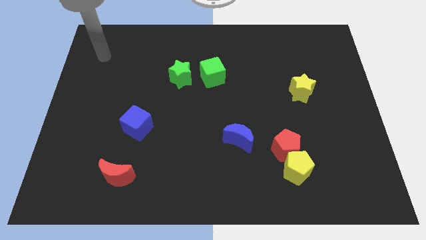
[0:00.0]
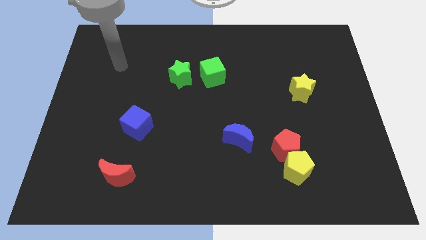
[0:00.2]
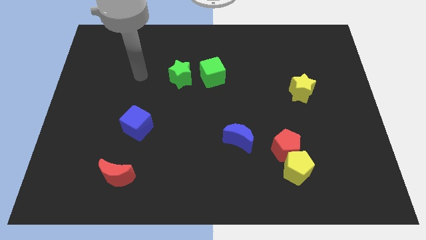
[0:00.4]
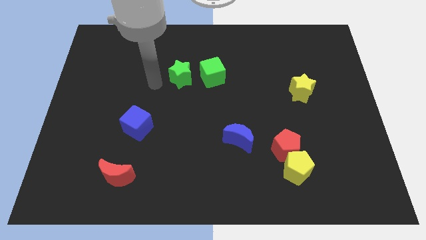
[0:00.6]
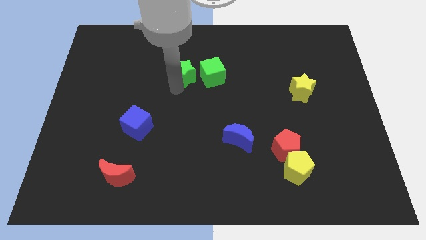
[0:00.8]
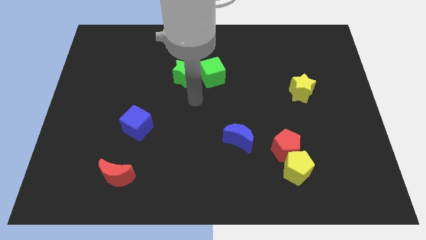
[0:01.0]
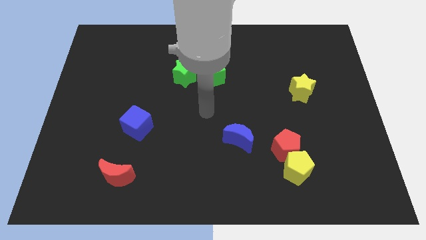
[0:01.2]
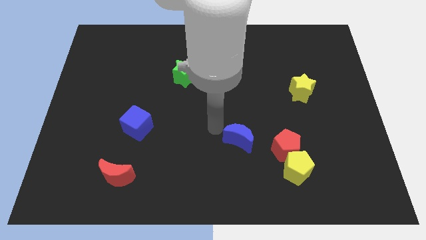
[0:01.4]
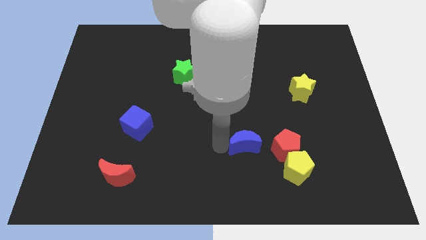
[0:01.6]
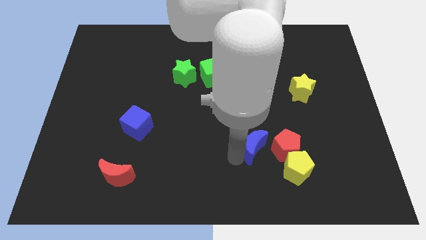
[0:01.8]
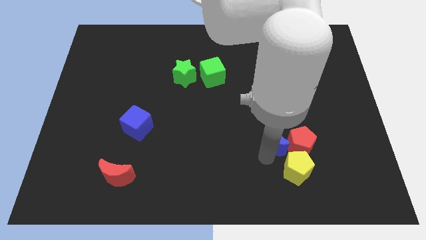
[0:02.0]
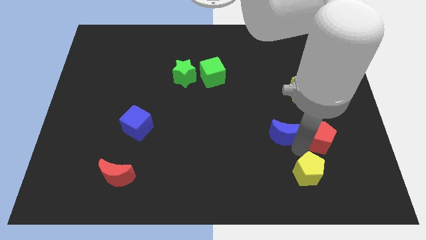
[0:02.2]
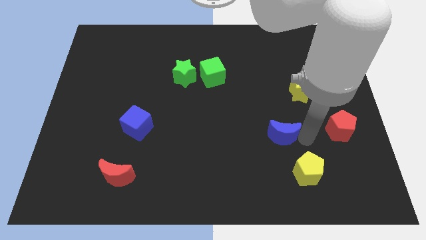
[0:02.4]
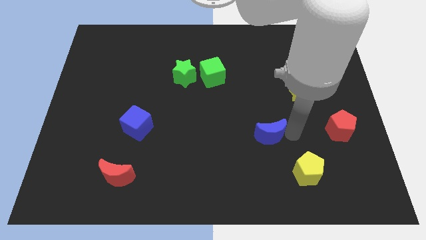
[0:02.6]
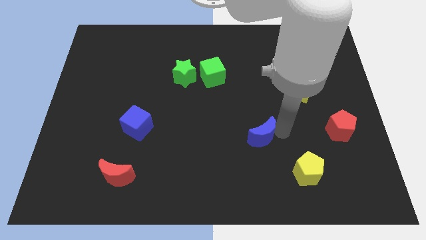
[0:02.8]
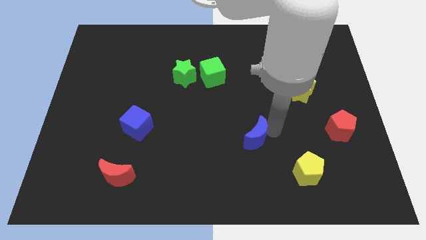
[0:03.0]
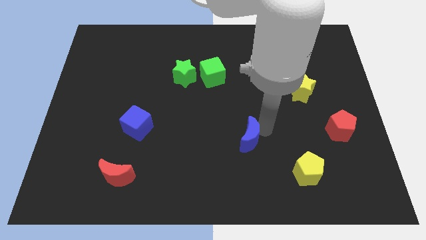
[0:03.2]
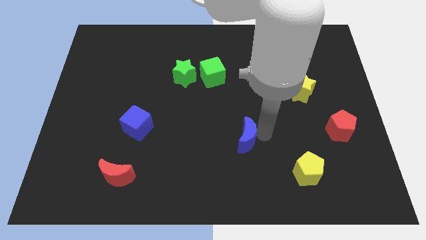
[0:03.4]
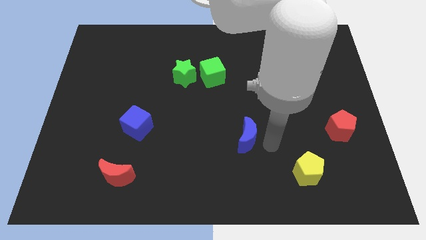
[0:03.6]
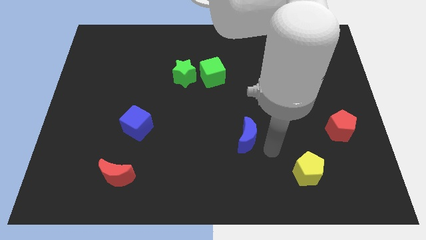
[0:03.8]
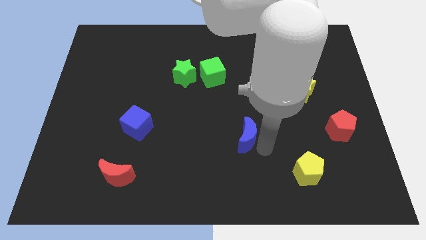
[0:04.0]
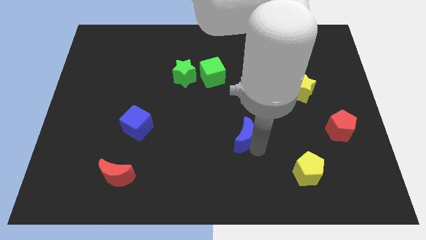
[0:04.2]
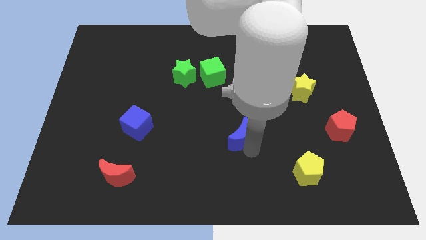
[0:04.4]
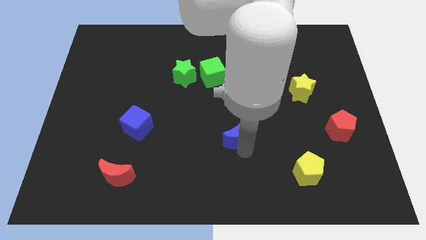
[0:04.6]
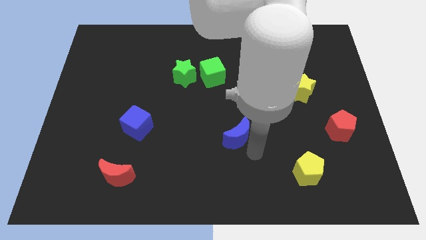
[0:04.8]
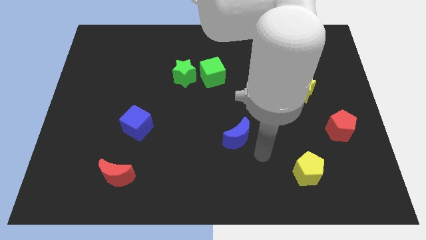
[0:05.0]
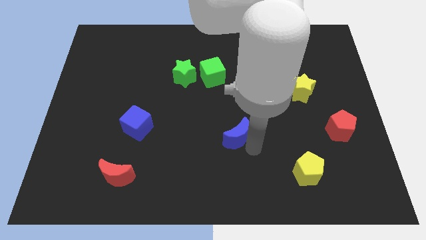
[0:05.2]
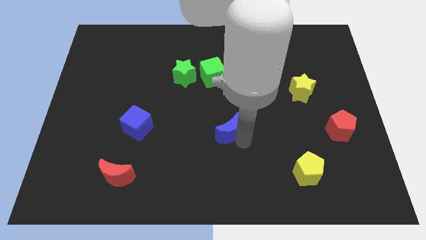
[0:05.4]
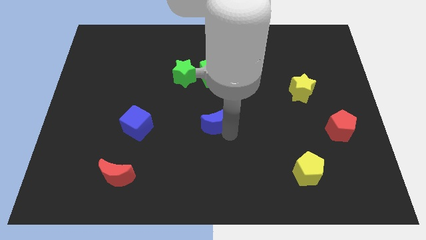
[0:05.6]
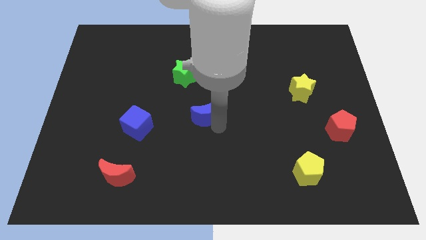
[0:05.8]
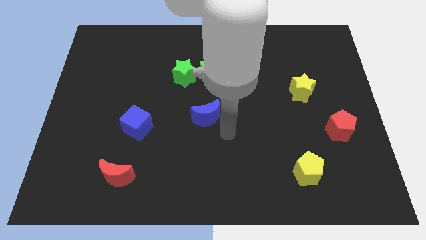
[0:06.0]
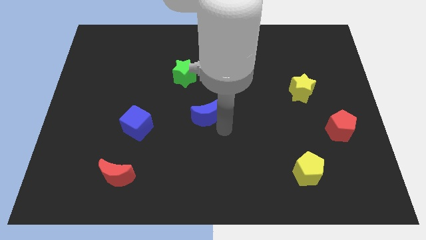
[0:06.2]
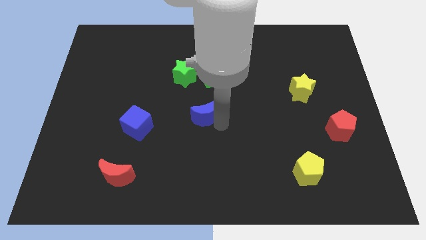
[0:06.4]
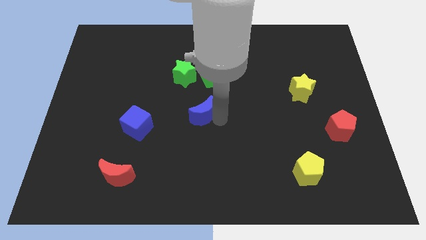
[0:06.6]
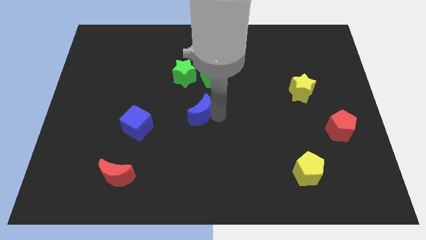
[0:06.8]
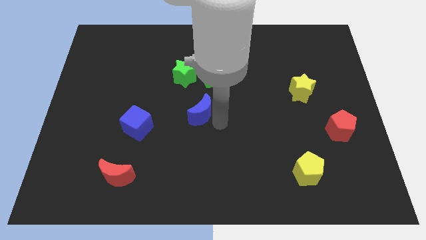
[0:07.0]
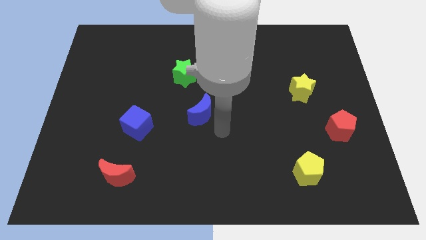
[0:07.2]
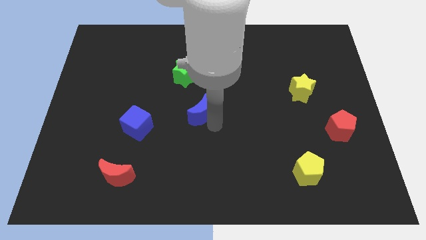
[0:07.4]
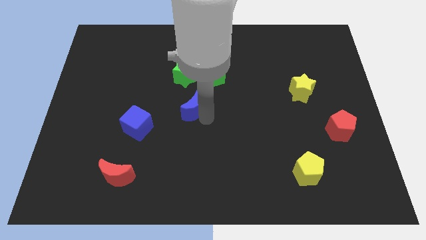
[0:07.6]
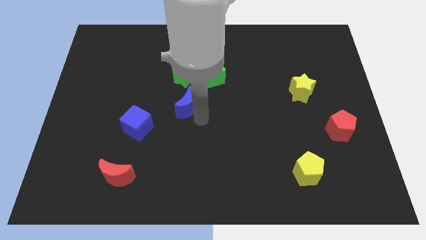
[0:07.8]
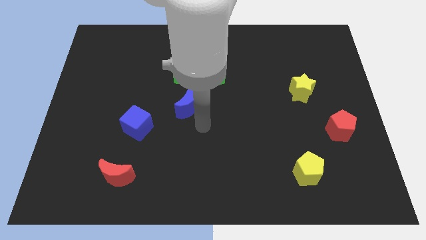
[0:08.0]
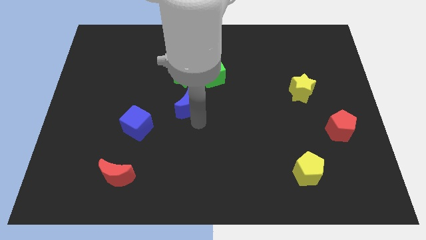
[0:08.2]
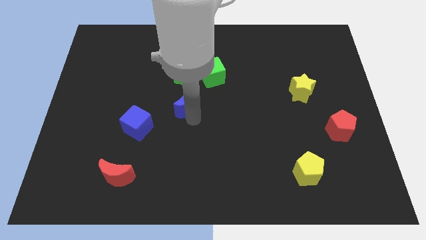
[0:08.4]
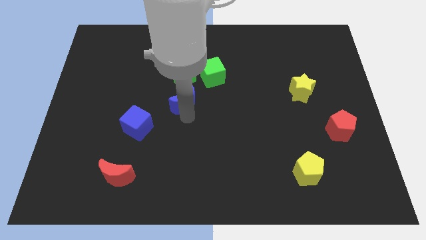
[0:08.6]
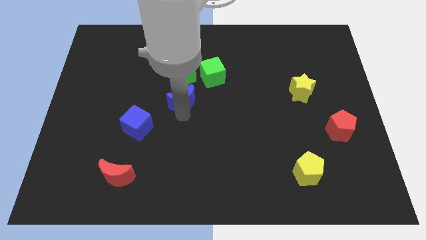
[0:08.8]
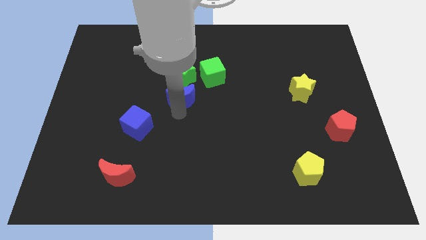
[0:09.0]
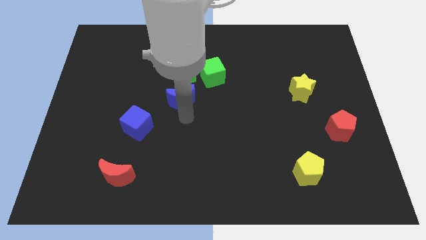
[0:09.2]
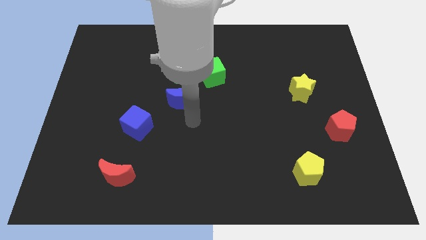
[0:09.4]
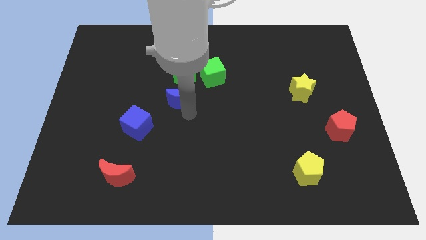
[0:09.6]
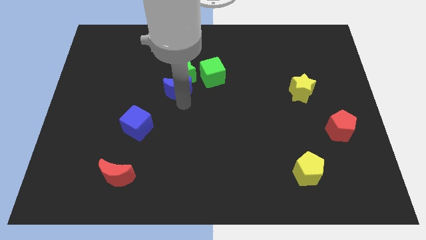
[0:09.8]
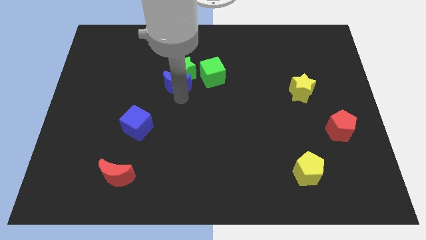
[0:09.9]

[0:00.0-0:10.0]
move the blue moon just left of the green cube

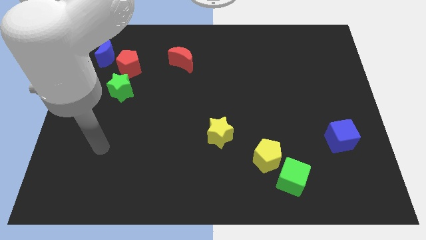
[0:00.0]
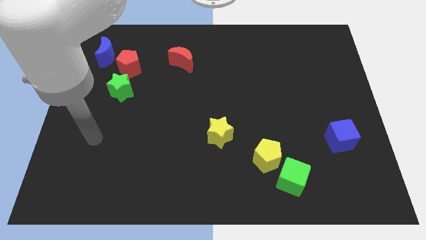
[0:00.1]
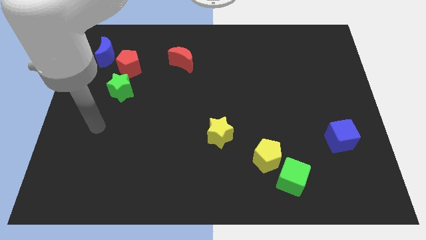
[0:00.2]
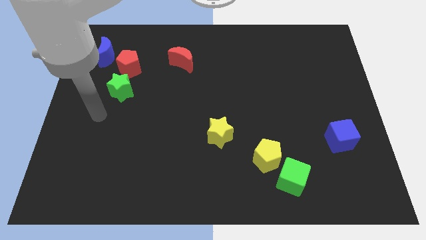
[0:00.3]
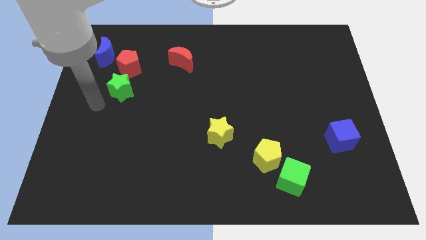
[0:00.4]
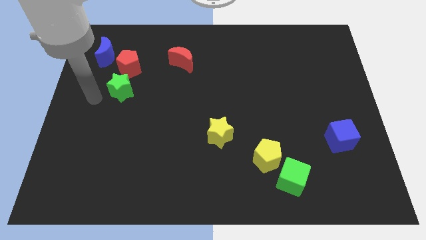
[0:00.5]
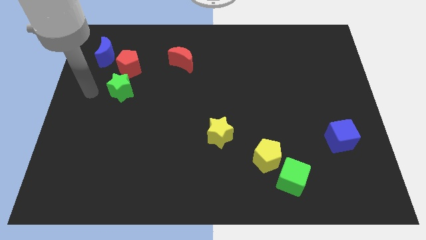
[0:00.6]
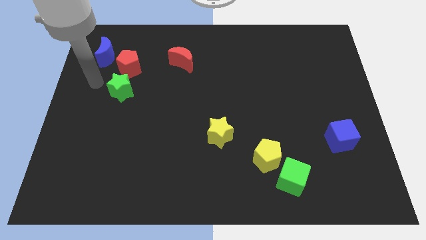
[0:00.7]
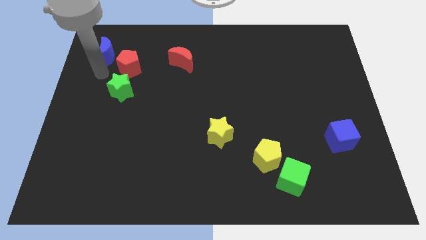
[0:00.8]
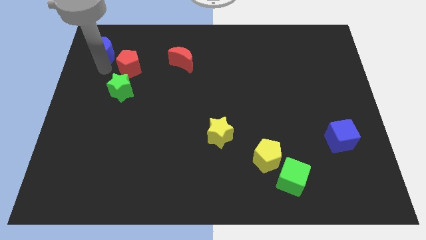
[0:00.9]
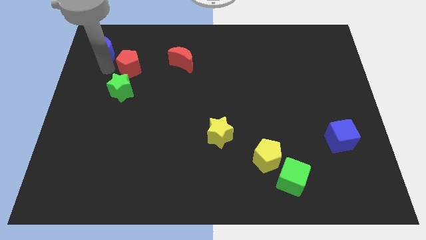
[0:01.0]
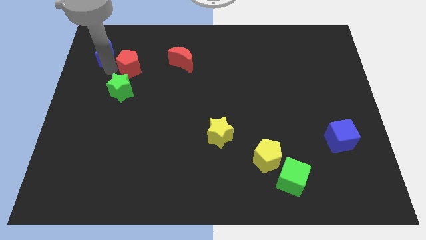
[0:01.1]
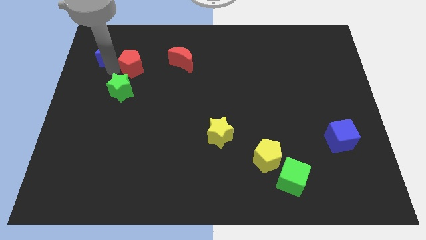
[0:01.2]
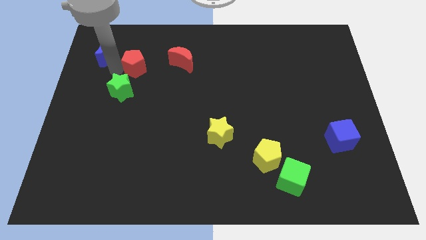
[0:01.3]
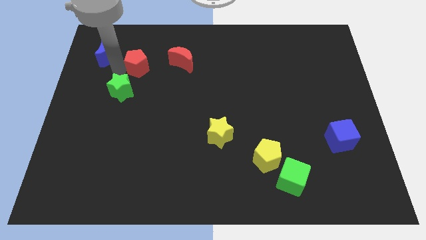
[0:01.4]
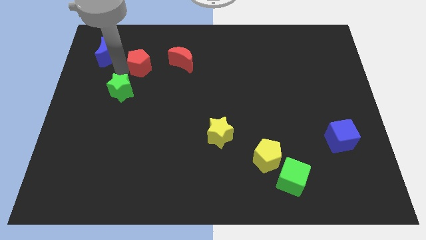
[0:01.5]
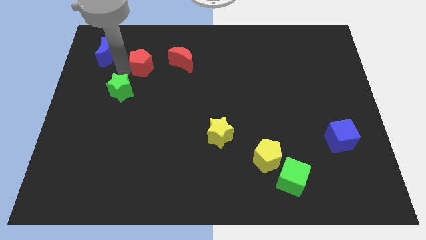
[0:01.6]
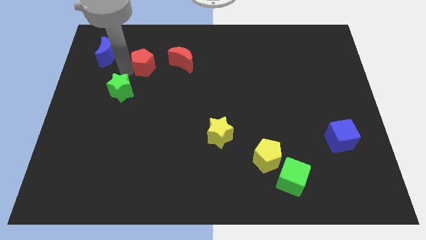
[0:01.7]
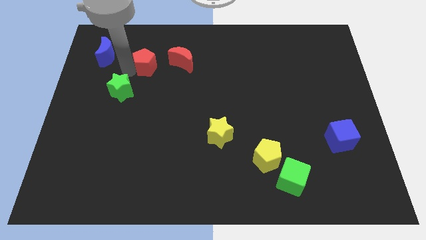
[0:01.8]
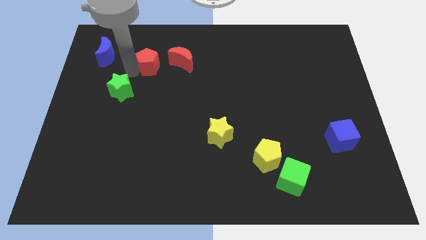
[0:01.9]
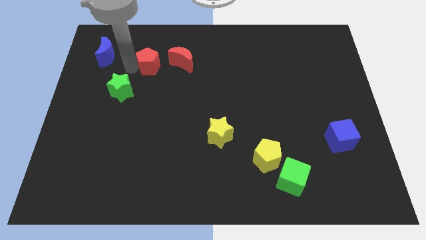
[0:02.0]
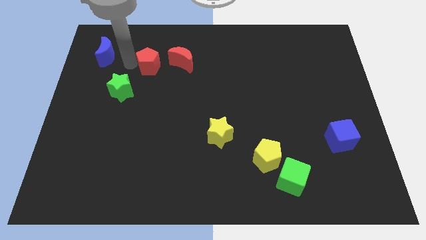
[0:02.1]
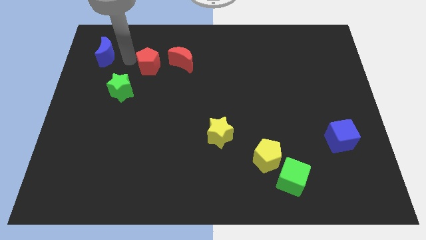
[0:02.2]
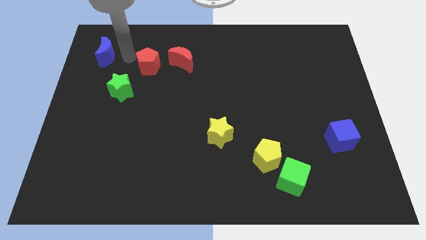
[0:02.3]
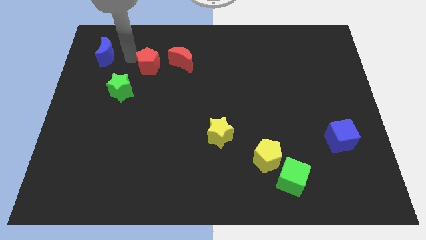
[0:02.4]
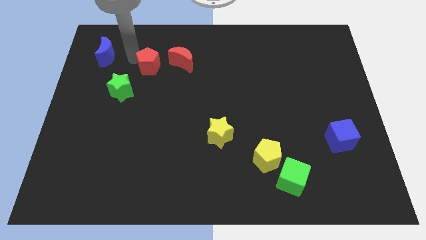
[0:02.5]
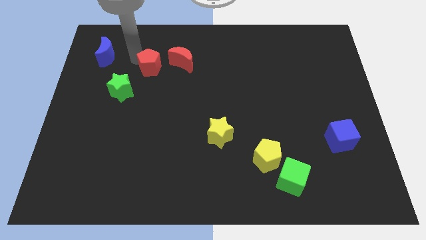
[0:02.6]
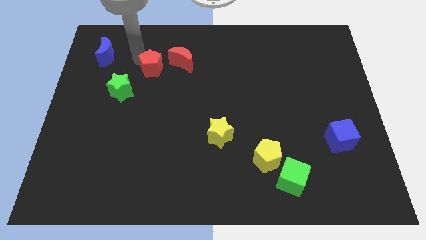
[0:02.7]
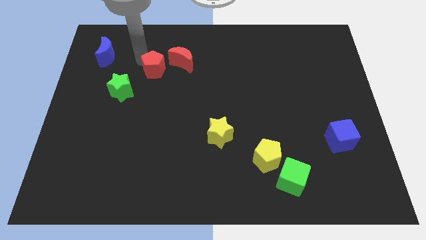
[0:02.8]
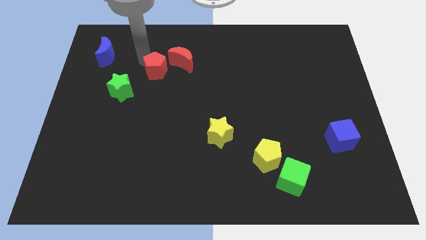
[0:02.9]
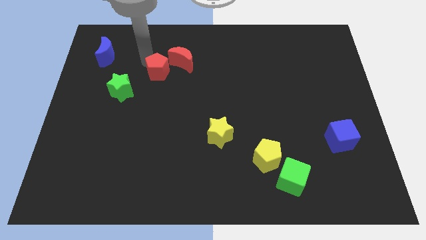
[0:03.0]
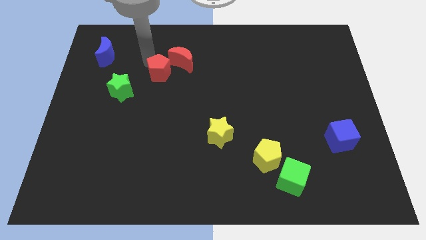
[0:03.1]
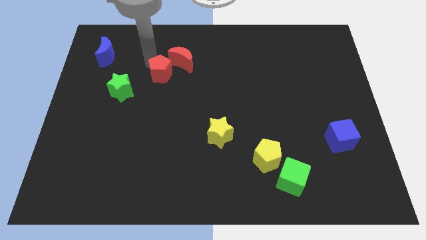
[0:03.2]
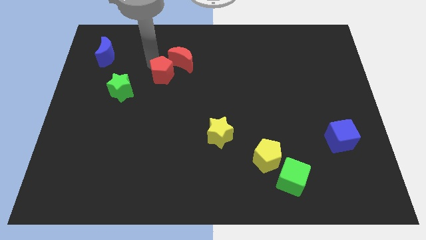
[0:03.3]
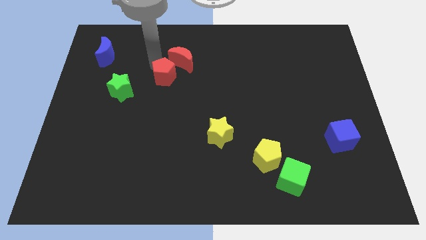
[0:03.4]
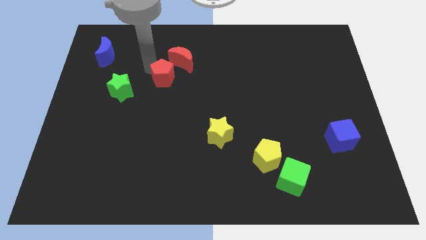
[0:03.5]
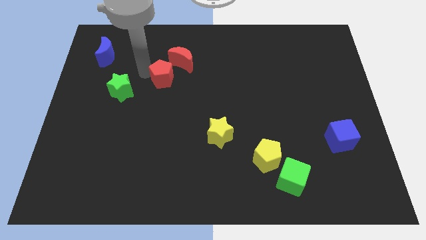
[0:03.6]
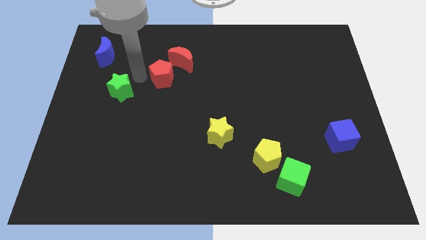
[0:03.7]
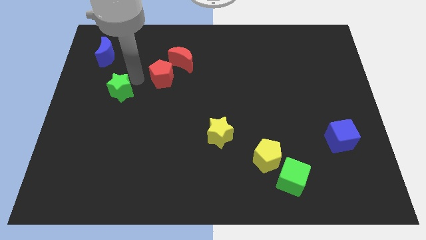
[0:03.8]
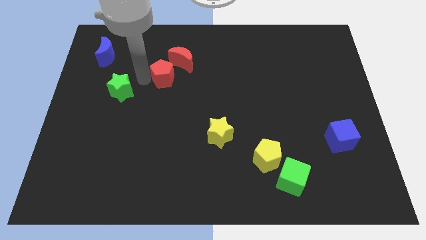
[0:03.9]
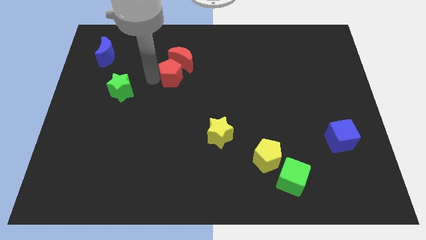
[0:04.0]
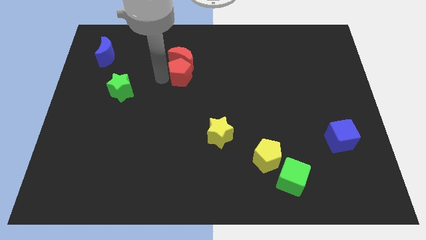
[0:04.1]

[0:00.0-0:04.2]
put the red pentagon to the bottom right of the red moon
